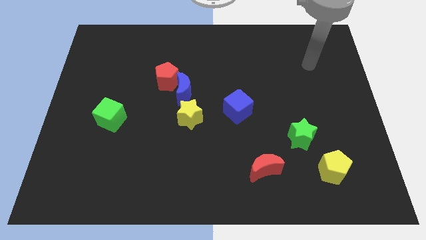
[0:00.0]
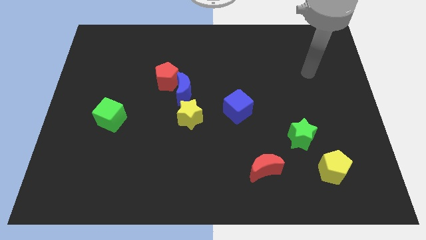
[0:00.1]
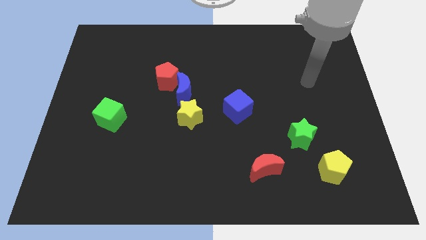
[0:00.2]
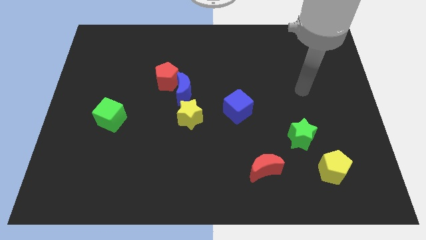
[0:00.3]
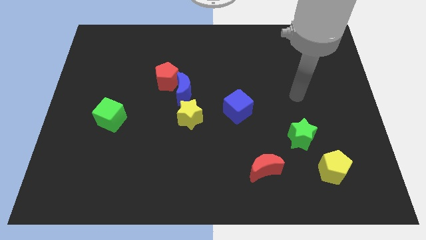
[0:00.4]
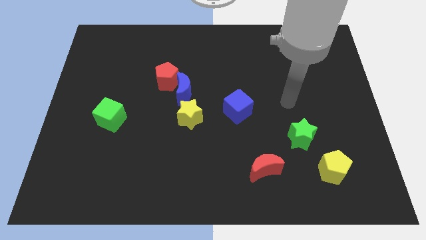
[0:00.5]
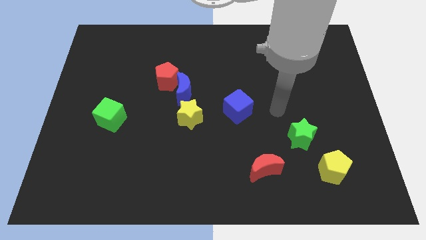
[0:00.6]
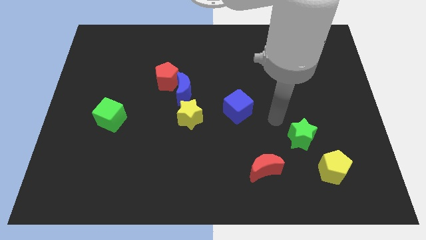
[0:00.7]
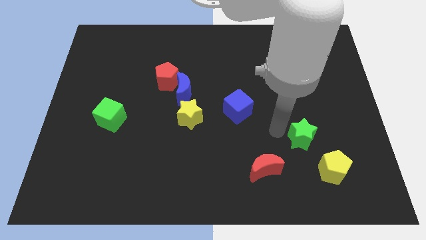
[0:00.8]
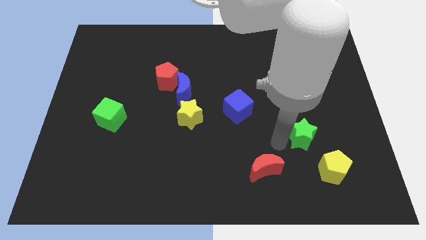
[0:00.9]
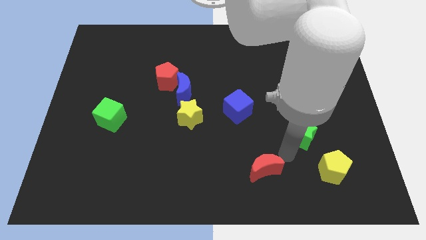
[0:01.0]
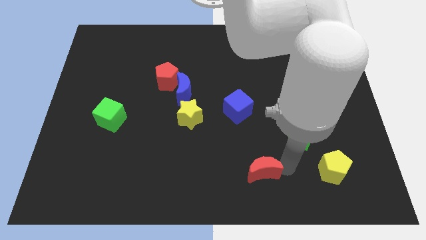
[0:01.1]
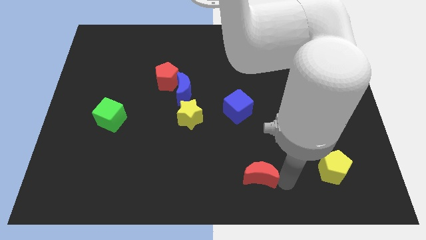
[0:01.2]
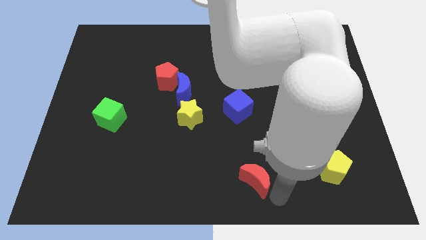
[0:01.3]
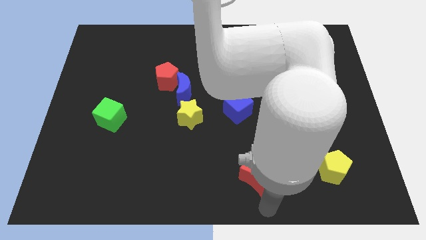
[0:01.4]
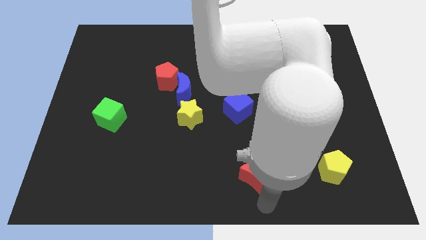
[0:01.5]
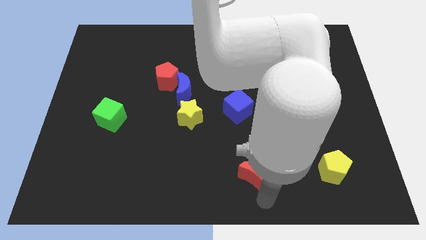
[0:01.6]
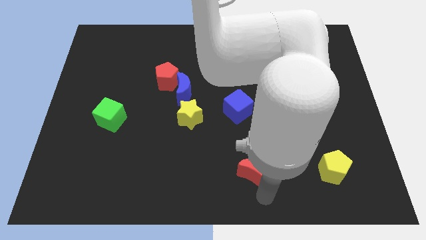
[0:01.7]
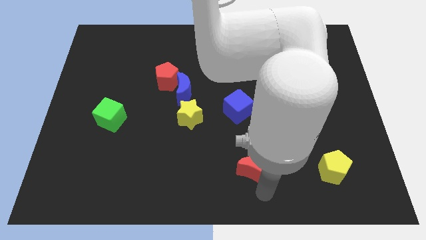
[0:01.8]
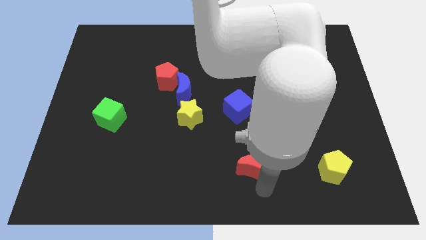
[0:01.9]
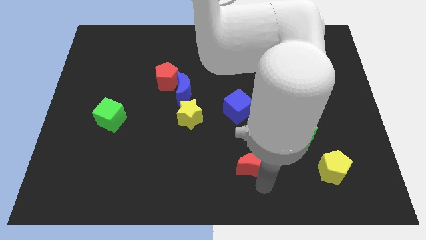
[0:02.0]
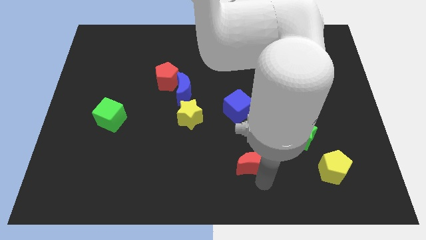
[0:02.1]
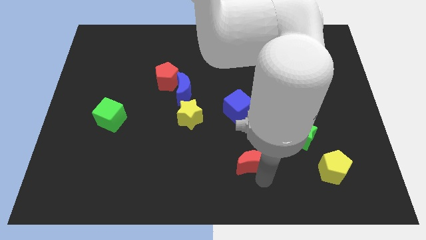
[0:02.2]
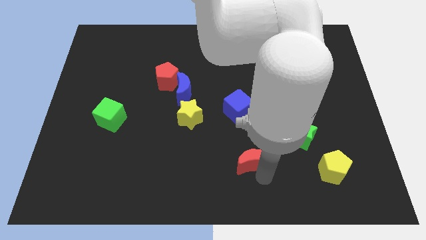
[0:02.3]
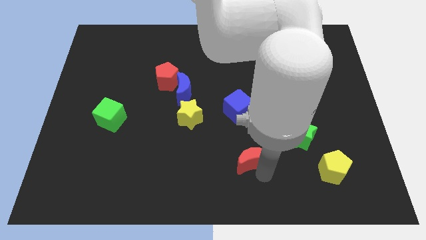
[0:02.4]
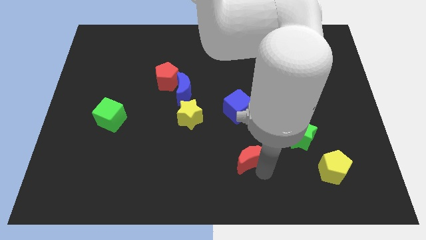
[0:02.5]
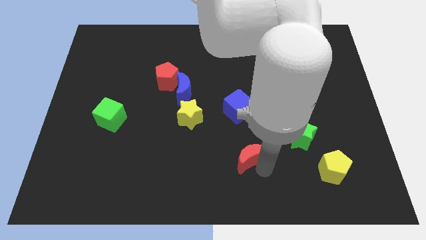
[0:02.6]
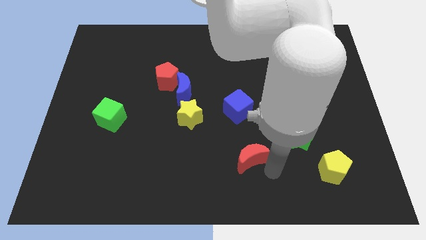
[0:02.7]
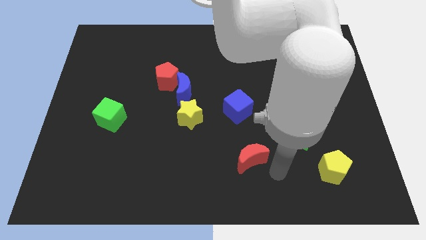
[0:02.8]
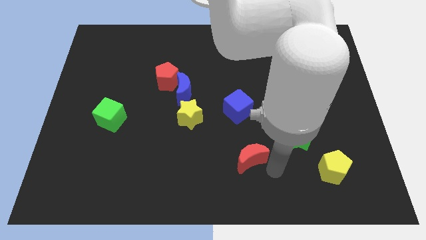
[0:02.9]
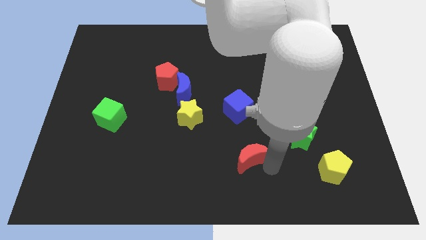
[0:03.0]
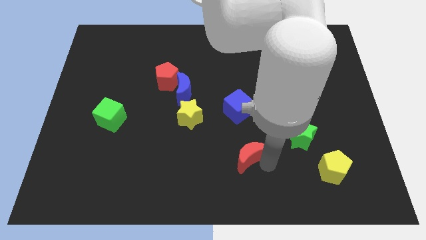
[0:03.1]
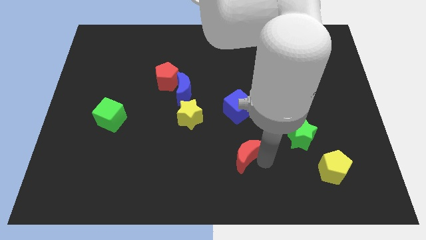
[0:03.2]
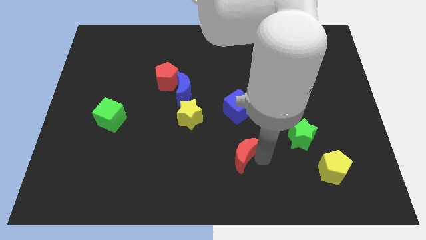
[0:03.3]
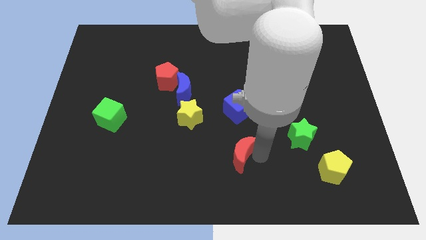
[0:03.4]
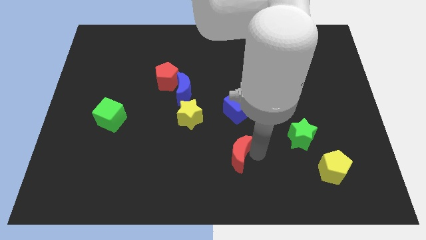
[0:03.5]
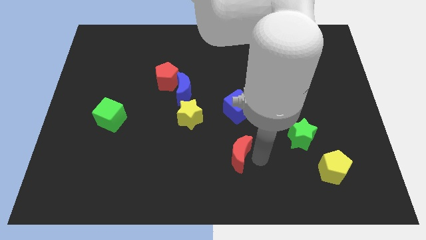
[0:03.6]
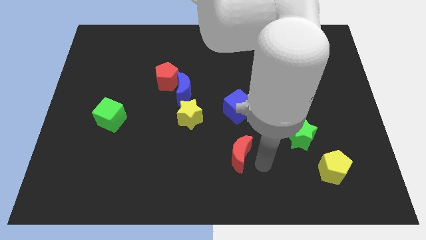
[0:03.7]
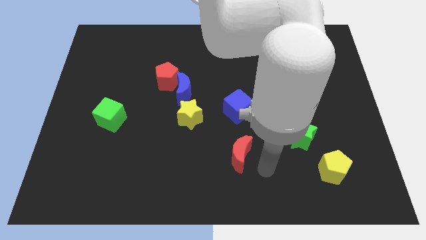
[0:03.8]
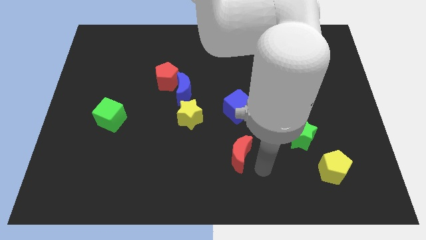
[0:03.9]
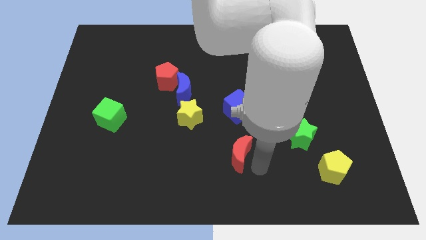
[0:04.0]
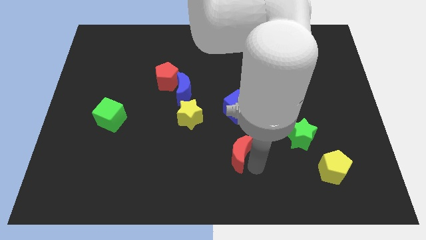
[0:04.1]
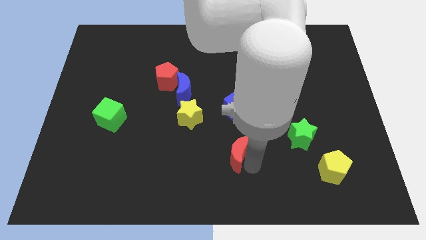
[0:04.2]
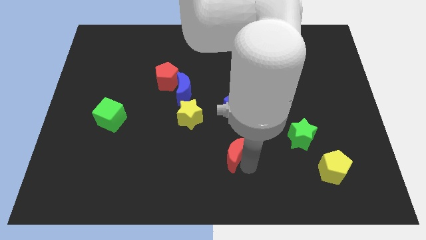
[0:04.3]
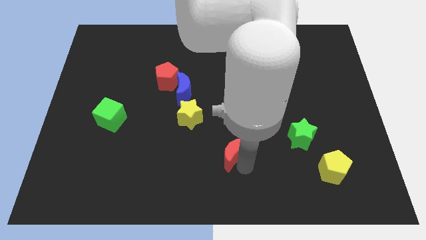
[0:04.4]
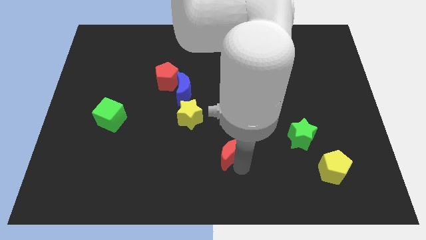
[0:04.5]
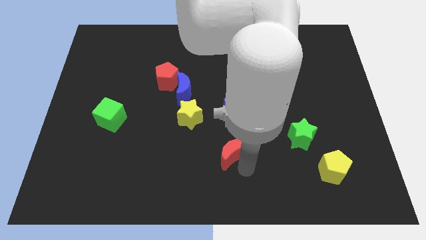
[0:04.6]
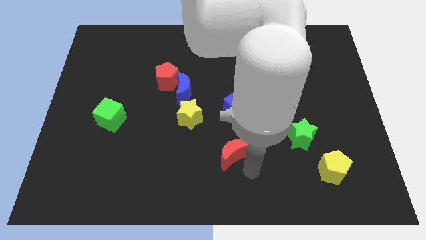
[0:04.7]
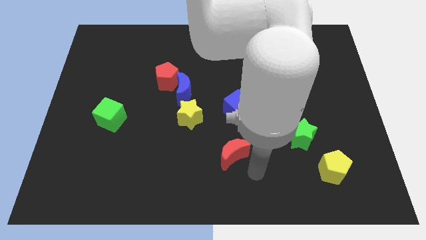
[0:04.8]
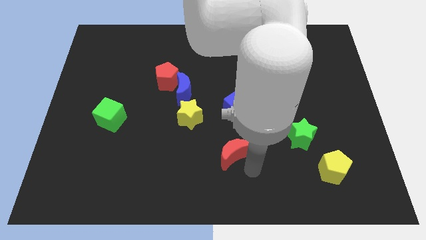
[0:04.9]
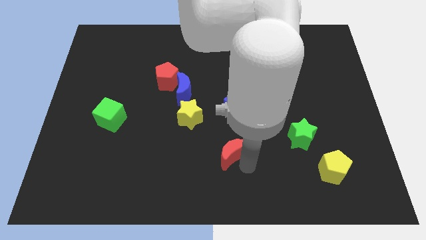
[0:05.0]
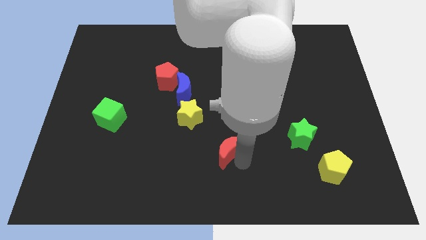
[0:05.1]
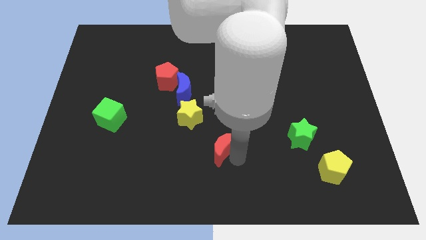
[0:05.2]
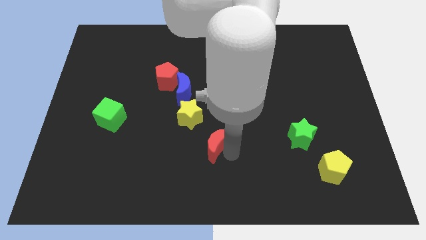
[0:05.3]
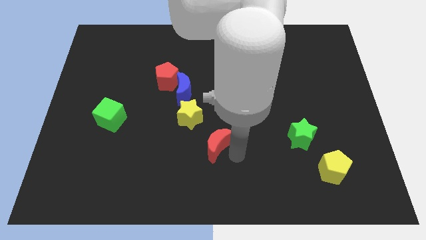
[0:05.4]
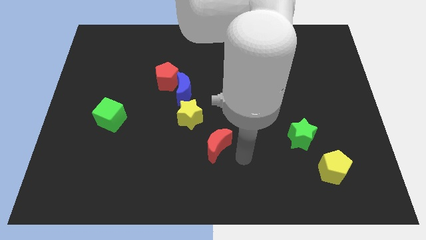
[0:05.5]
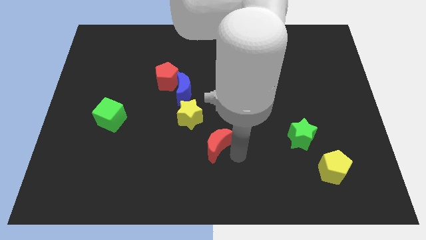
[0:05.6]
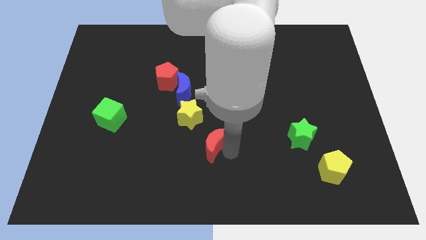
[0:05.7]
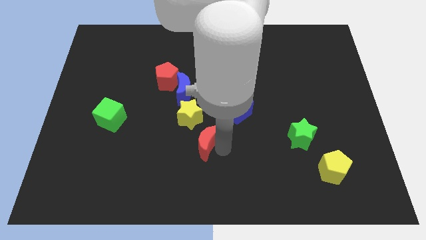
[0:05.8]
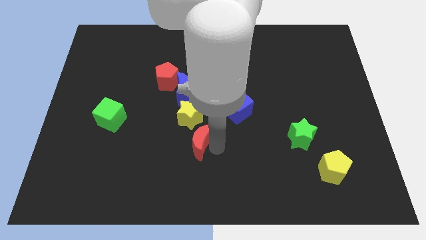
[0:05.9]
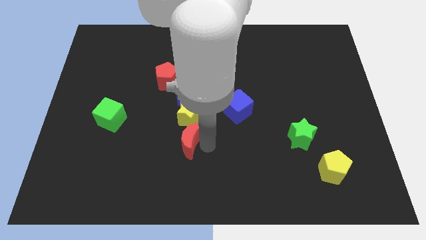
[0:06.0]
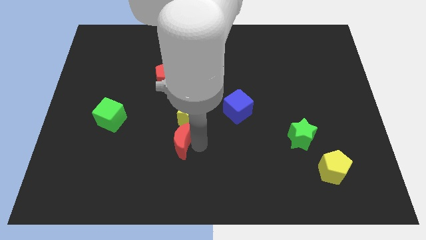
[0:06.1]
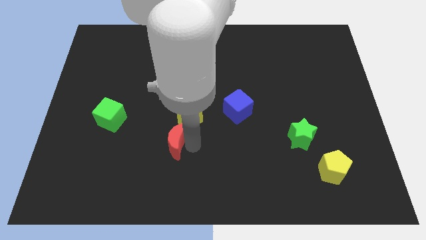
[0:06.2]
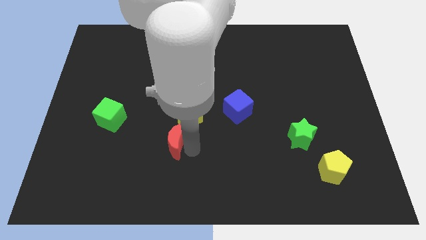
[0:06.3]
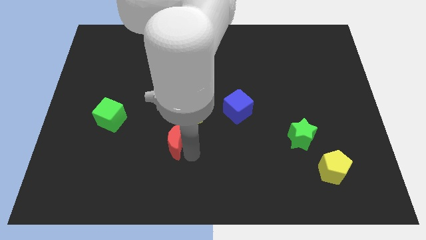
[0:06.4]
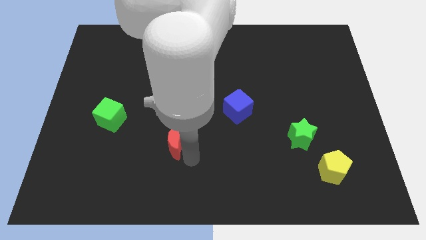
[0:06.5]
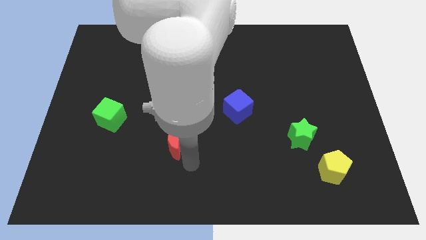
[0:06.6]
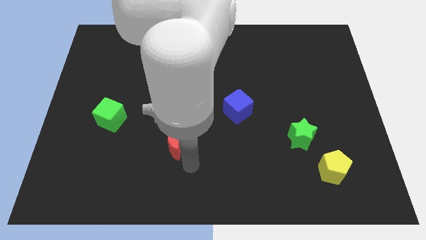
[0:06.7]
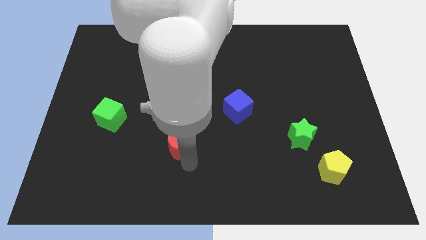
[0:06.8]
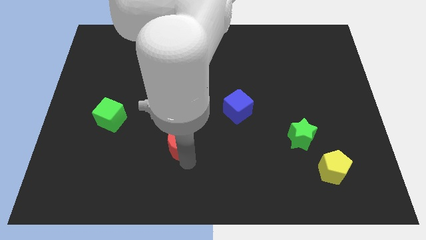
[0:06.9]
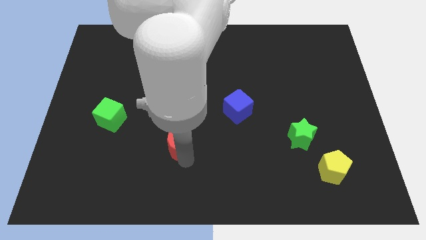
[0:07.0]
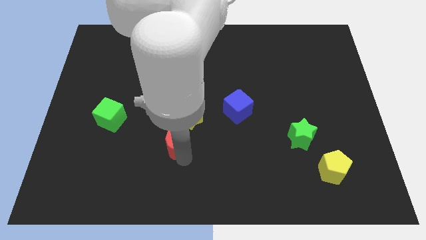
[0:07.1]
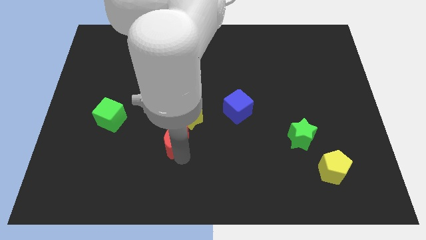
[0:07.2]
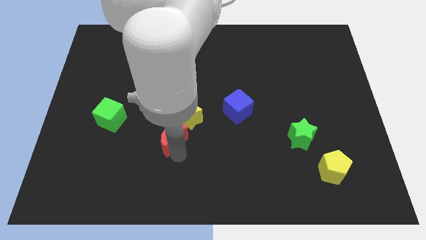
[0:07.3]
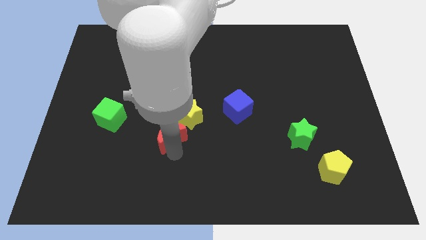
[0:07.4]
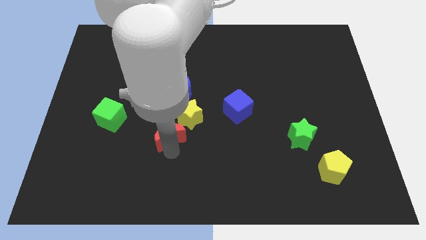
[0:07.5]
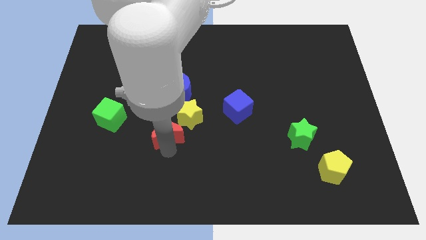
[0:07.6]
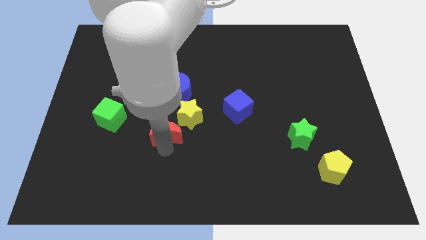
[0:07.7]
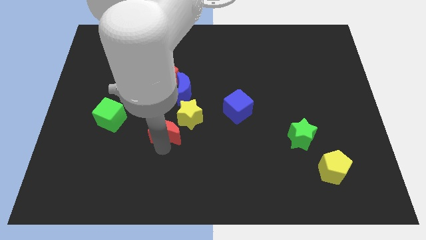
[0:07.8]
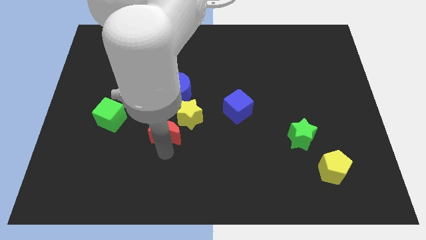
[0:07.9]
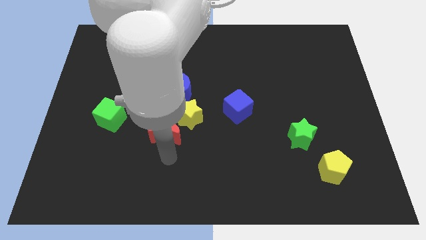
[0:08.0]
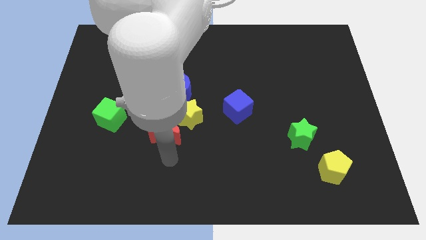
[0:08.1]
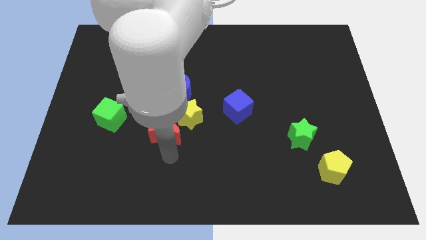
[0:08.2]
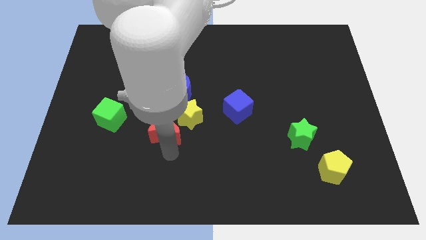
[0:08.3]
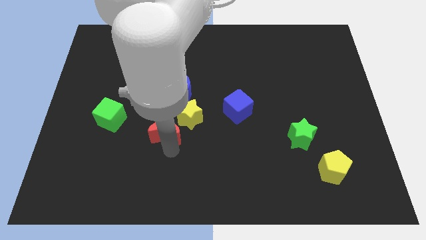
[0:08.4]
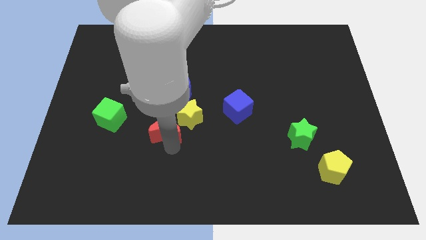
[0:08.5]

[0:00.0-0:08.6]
slide the red moon to the bottom of the red pentagon
